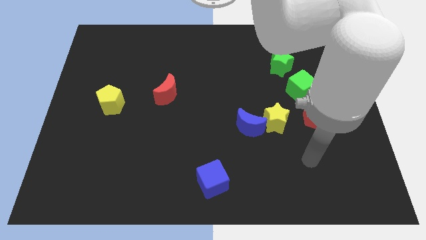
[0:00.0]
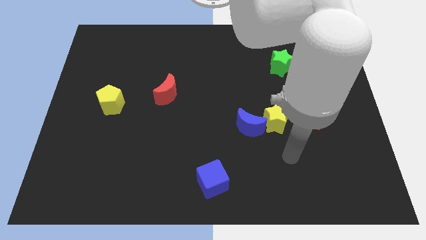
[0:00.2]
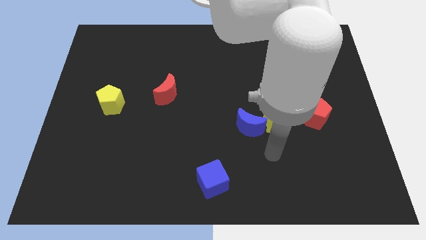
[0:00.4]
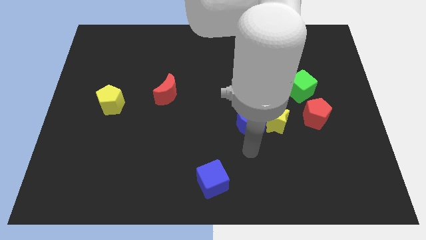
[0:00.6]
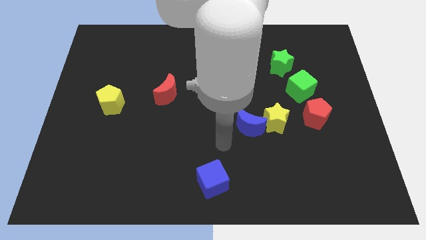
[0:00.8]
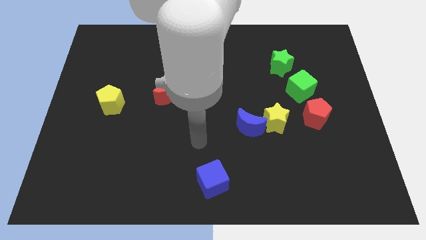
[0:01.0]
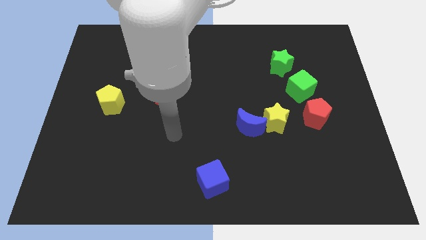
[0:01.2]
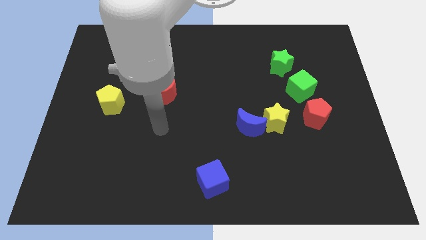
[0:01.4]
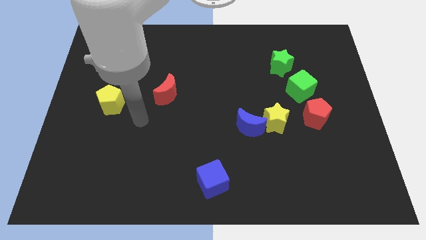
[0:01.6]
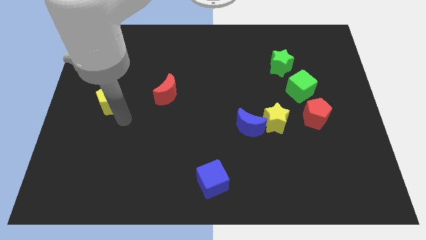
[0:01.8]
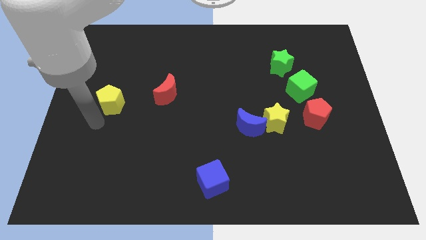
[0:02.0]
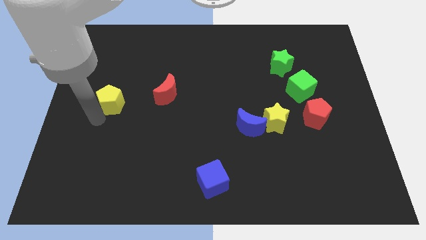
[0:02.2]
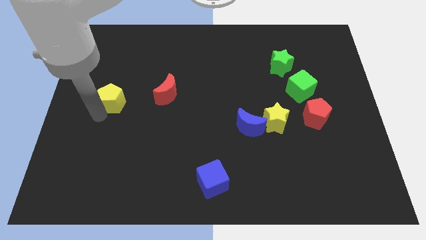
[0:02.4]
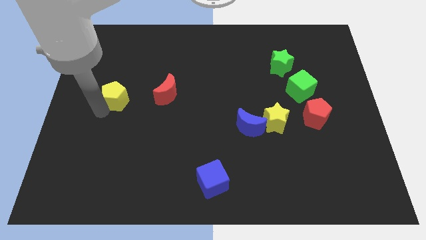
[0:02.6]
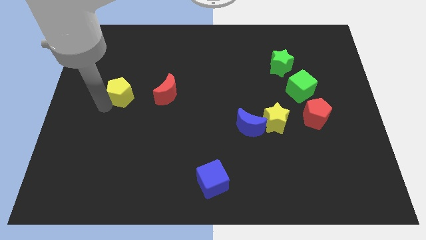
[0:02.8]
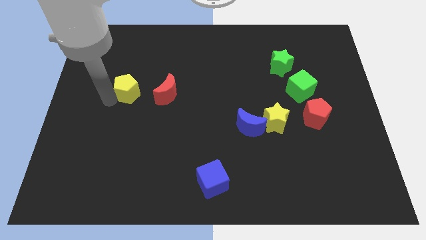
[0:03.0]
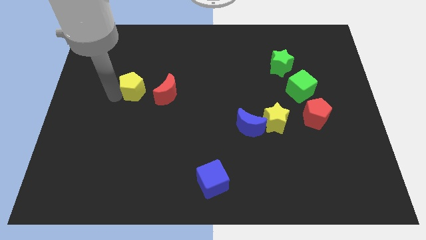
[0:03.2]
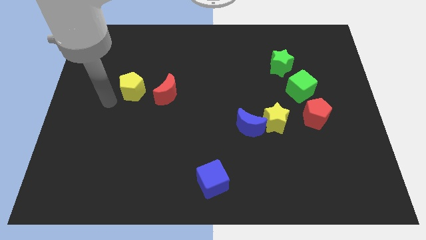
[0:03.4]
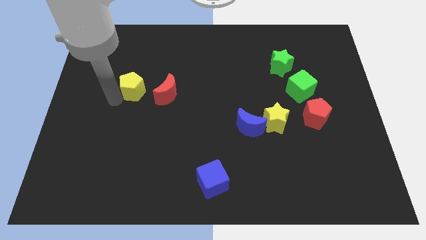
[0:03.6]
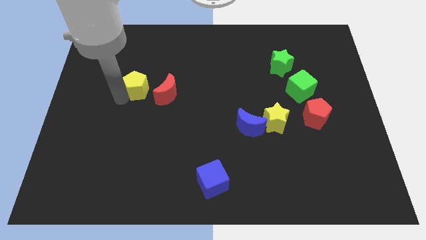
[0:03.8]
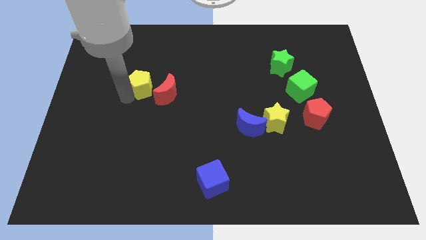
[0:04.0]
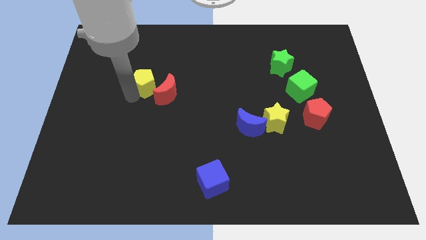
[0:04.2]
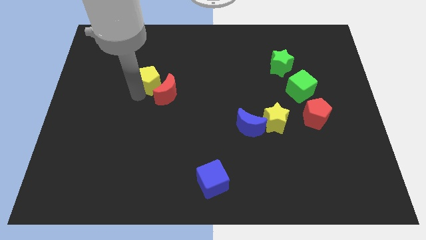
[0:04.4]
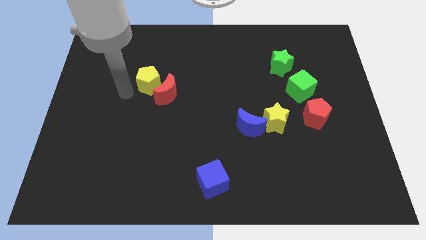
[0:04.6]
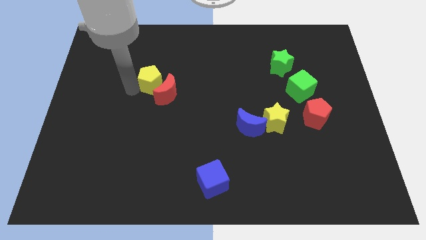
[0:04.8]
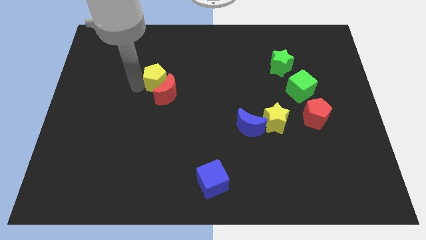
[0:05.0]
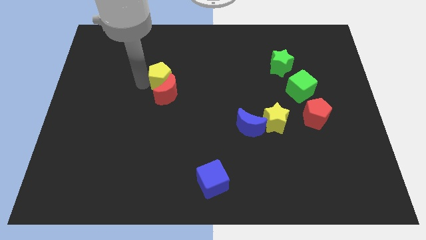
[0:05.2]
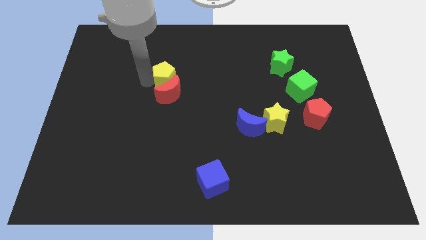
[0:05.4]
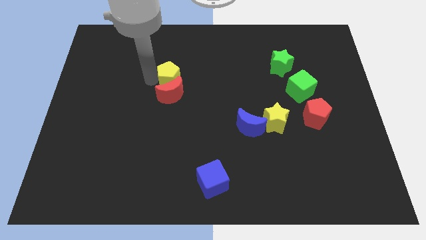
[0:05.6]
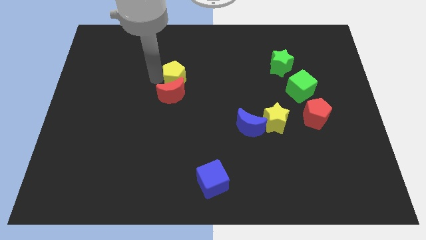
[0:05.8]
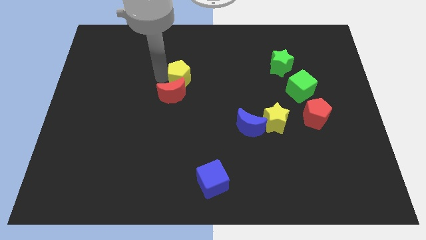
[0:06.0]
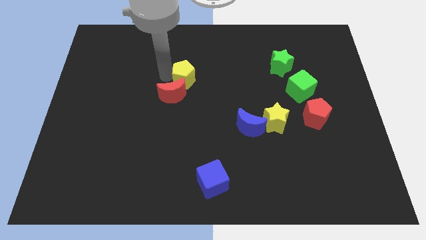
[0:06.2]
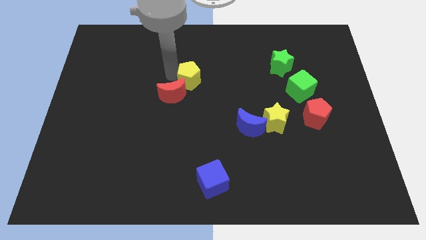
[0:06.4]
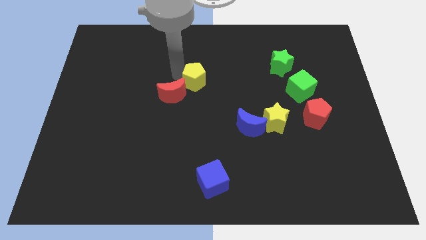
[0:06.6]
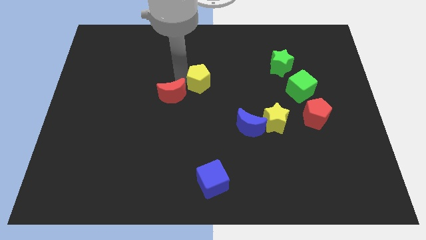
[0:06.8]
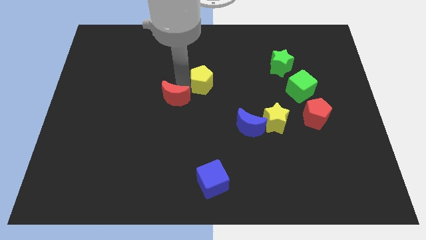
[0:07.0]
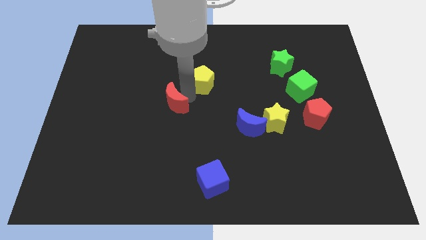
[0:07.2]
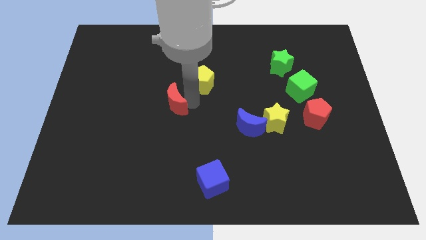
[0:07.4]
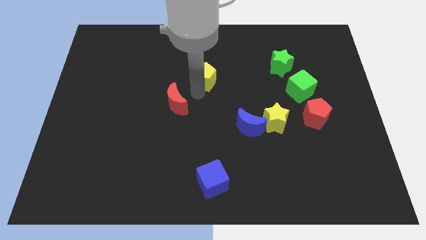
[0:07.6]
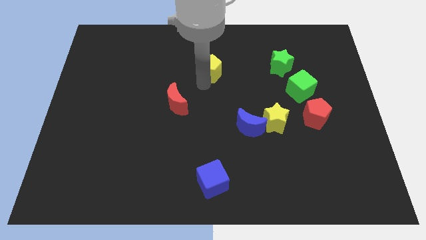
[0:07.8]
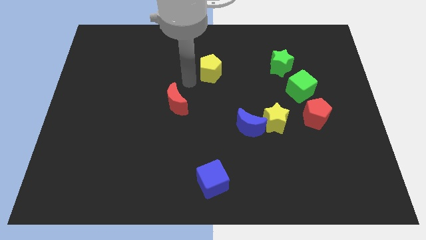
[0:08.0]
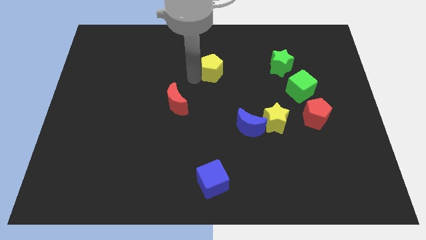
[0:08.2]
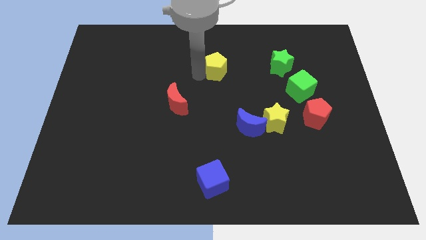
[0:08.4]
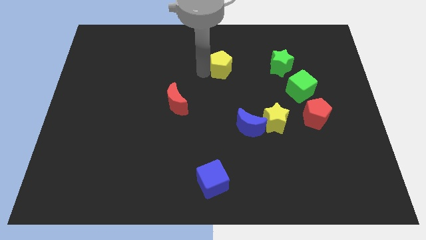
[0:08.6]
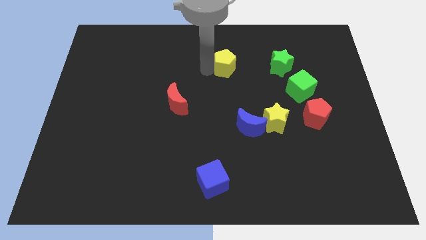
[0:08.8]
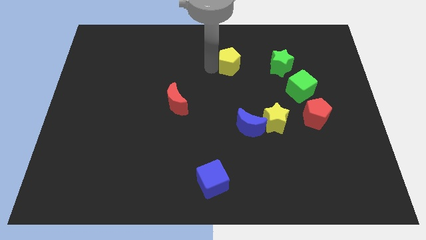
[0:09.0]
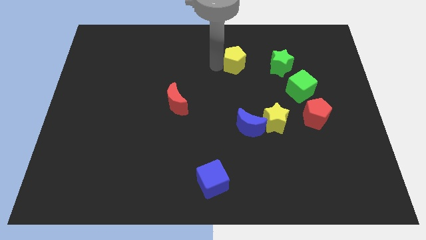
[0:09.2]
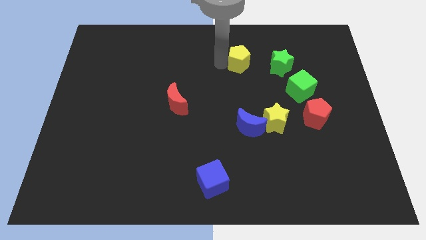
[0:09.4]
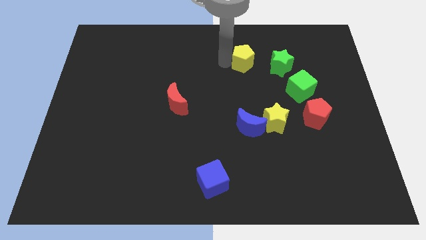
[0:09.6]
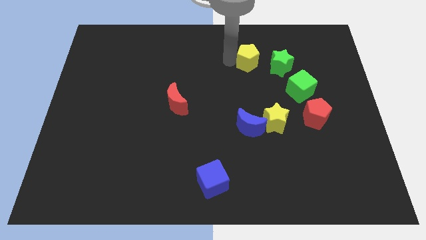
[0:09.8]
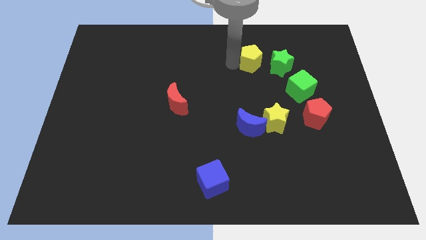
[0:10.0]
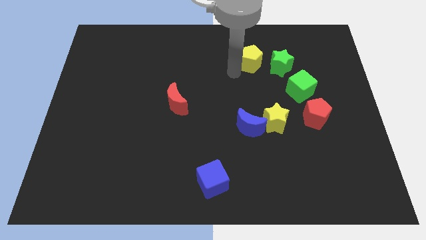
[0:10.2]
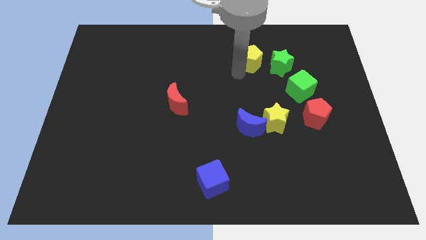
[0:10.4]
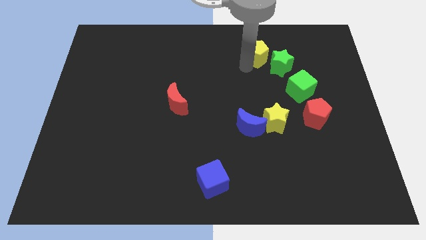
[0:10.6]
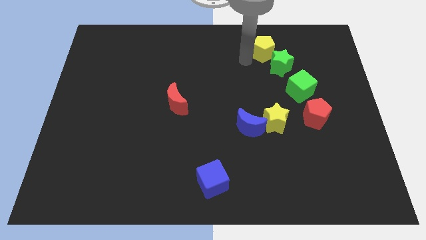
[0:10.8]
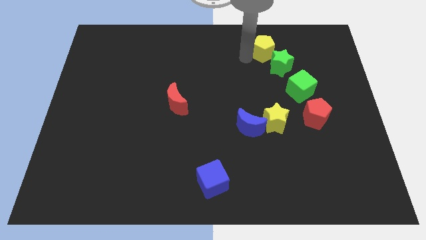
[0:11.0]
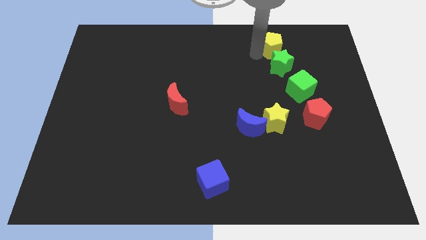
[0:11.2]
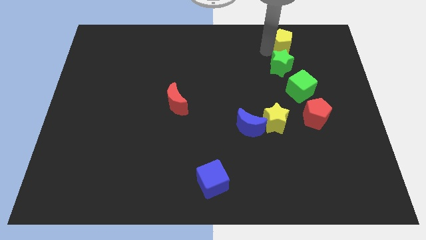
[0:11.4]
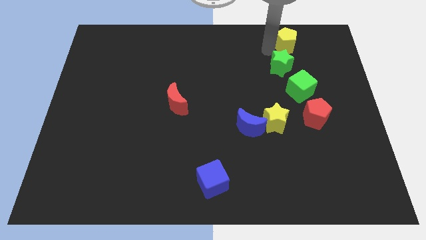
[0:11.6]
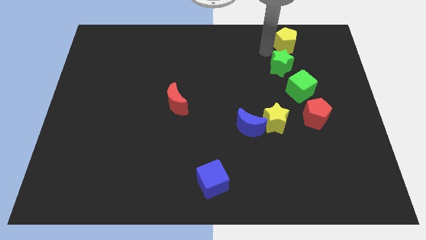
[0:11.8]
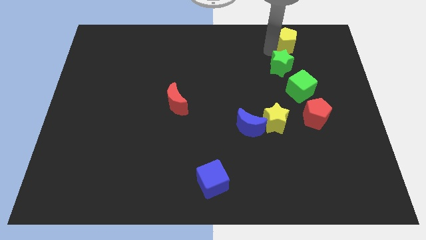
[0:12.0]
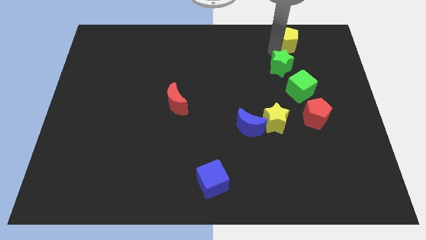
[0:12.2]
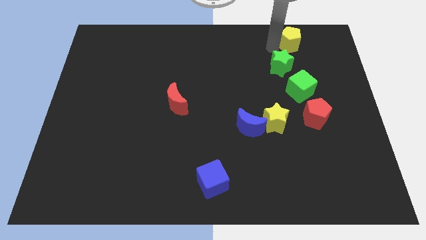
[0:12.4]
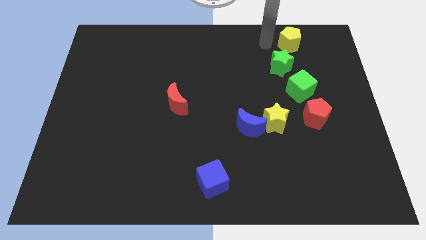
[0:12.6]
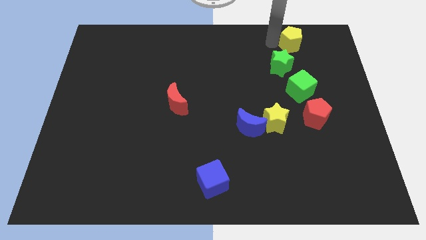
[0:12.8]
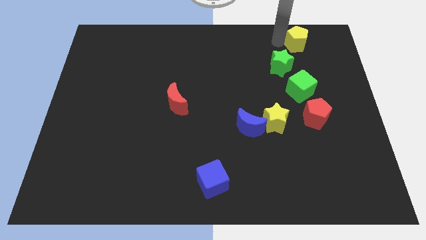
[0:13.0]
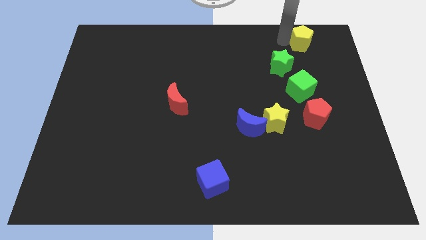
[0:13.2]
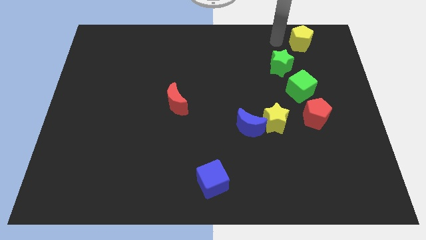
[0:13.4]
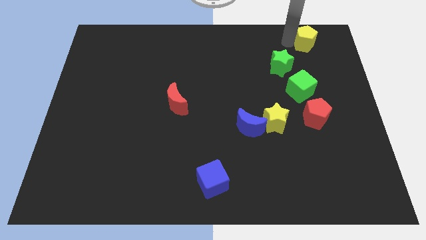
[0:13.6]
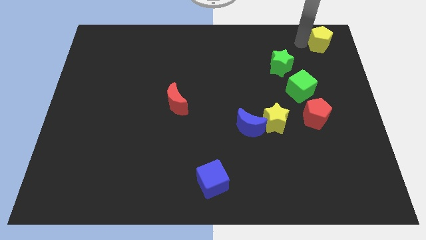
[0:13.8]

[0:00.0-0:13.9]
move the yellow pentagon to the upper right corner
